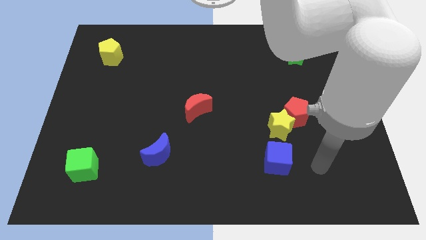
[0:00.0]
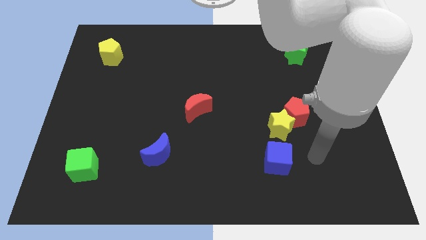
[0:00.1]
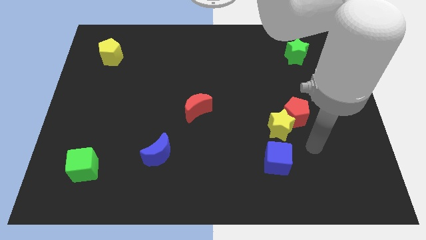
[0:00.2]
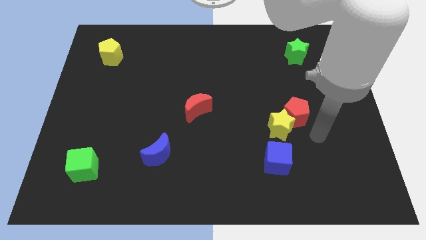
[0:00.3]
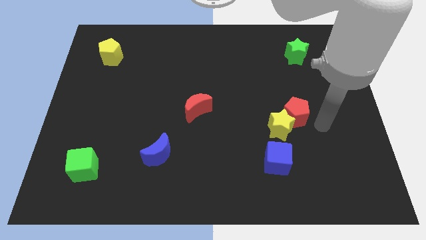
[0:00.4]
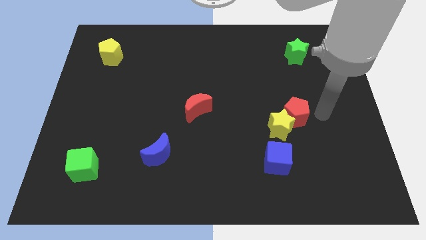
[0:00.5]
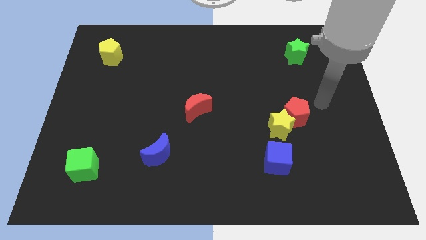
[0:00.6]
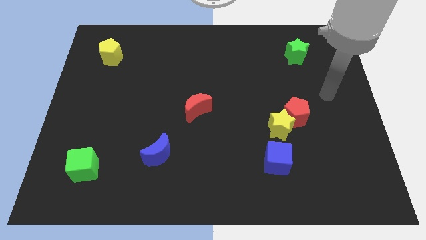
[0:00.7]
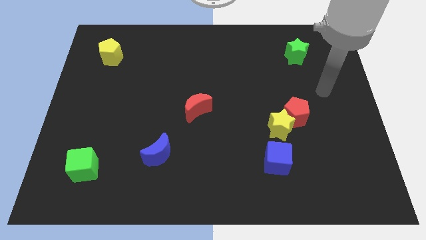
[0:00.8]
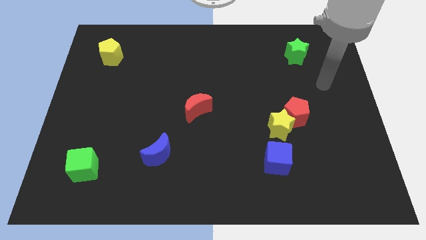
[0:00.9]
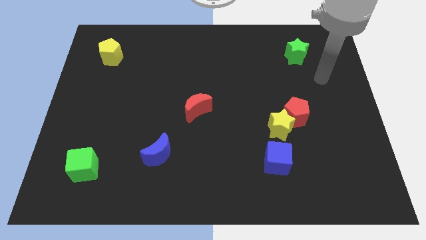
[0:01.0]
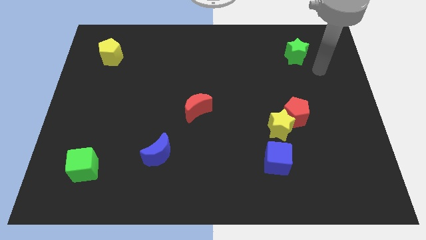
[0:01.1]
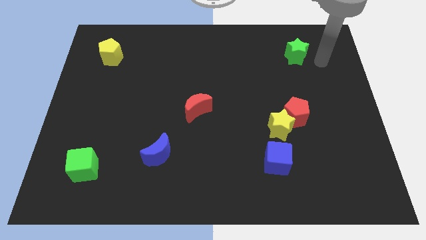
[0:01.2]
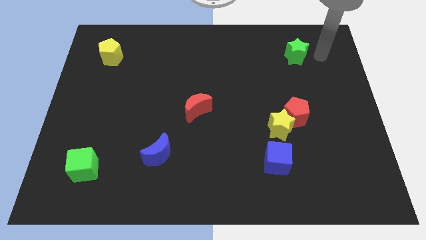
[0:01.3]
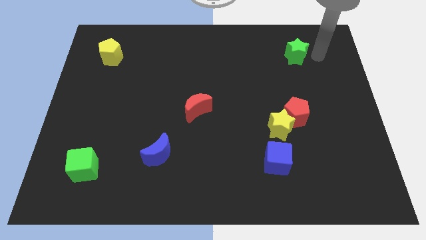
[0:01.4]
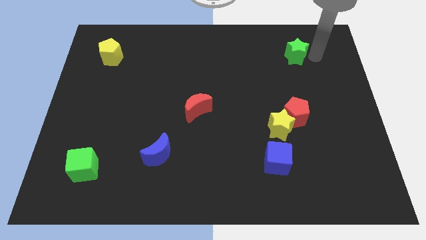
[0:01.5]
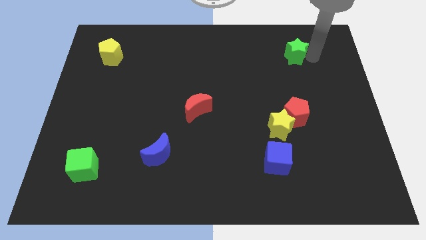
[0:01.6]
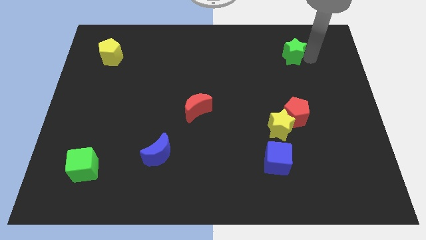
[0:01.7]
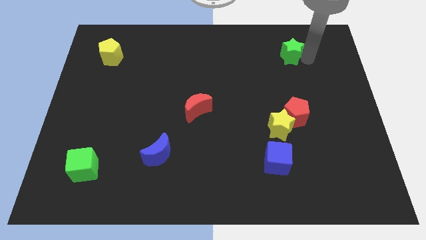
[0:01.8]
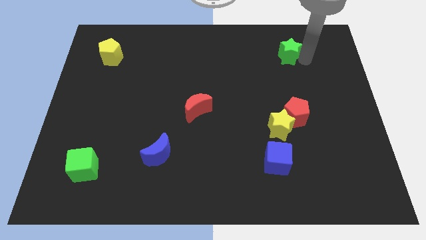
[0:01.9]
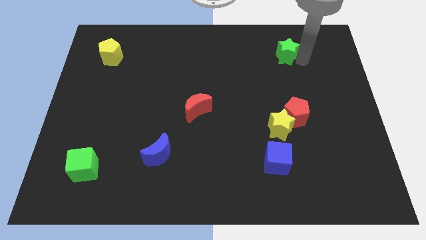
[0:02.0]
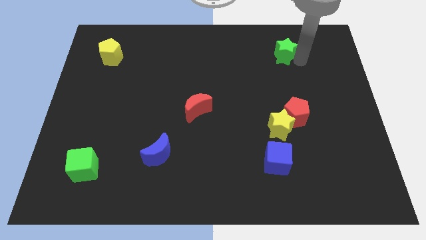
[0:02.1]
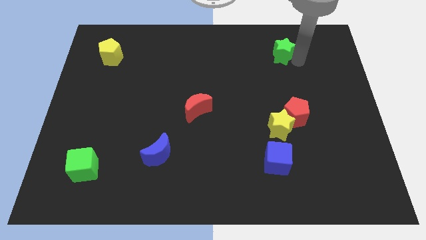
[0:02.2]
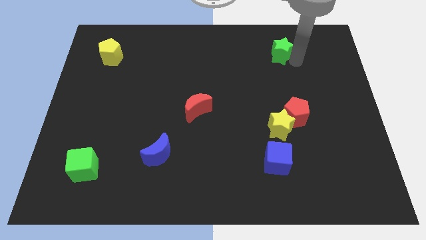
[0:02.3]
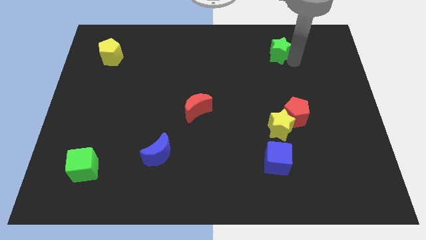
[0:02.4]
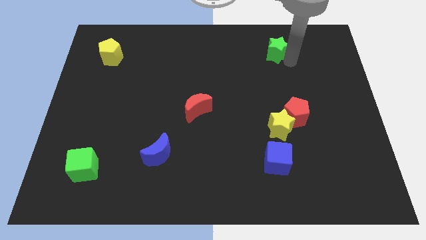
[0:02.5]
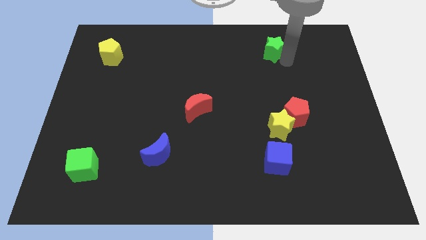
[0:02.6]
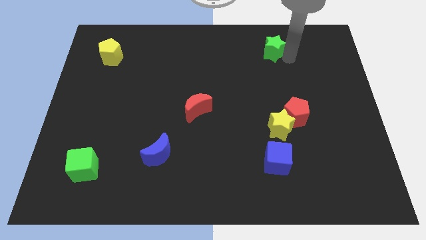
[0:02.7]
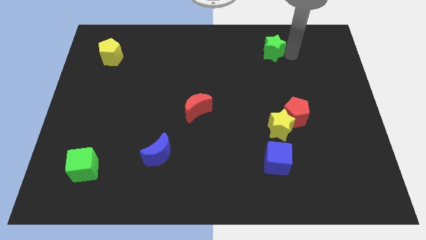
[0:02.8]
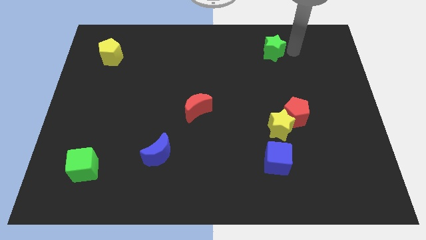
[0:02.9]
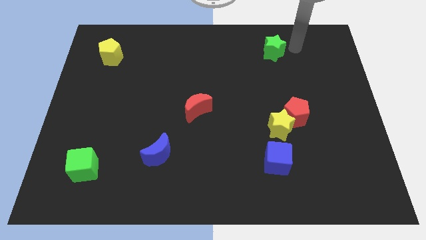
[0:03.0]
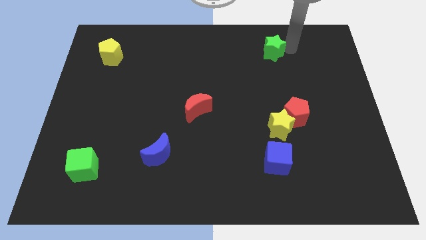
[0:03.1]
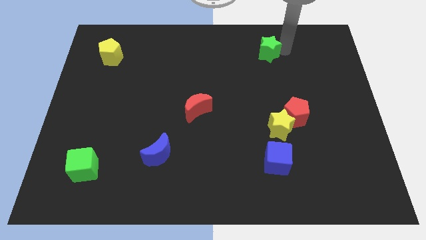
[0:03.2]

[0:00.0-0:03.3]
push the green star to the left a little bit

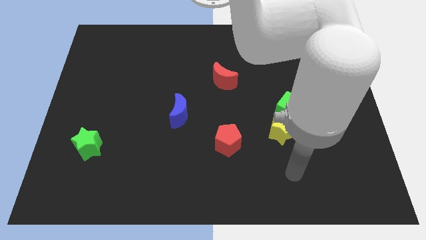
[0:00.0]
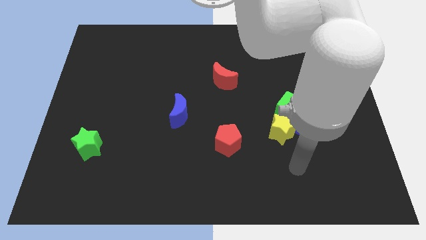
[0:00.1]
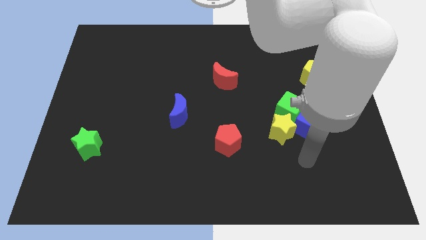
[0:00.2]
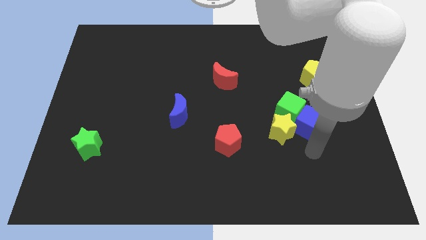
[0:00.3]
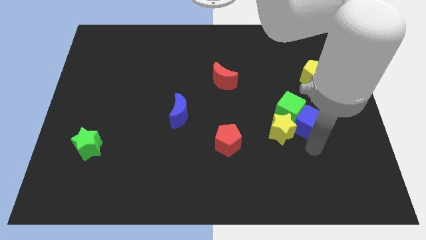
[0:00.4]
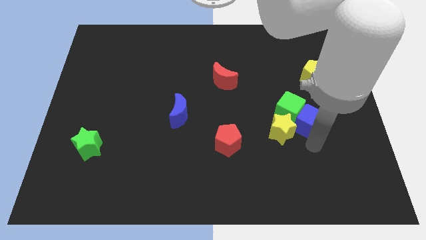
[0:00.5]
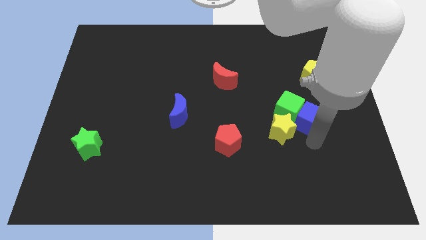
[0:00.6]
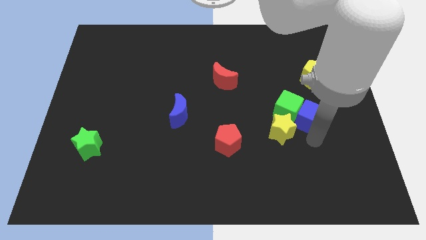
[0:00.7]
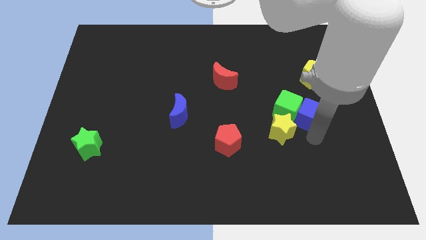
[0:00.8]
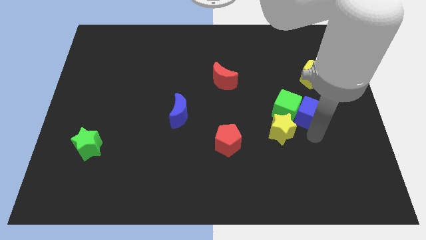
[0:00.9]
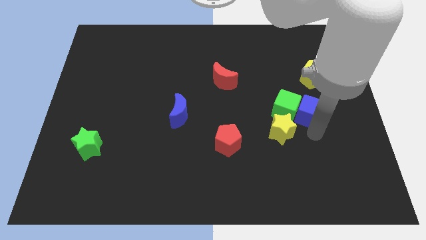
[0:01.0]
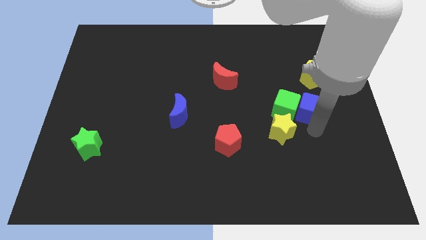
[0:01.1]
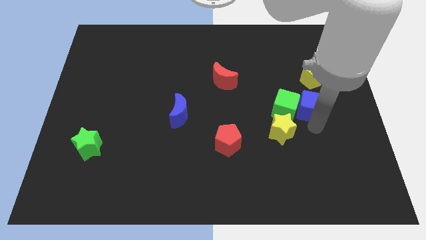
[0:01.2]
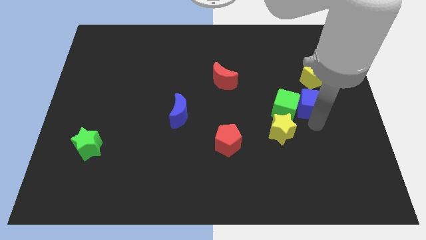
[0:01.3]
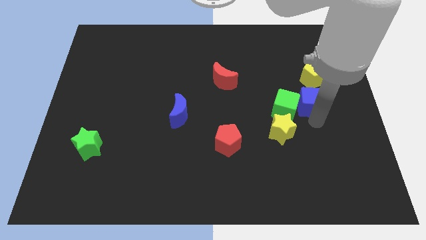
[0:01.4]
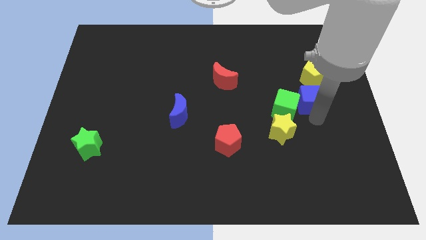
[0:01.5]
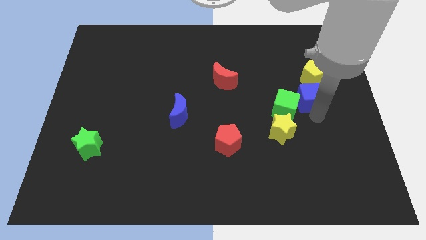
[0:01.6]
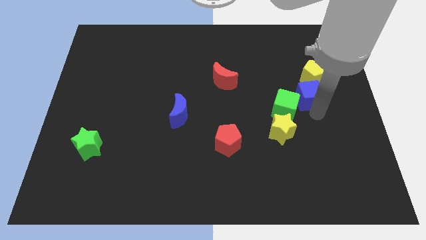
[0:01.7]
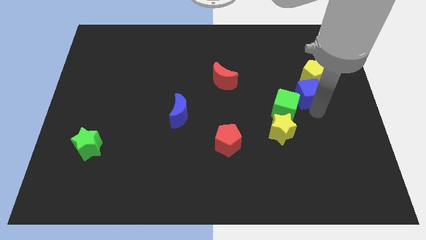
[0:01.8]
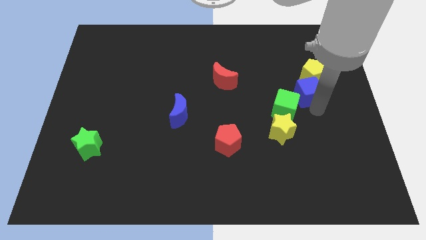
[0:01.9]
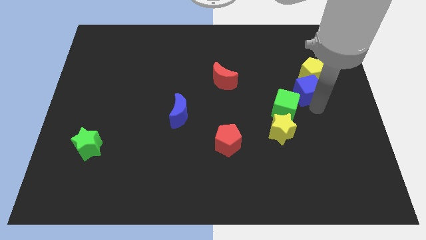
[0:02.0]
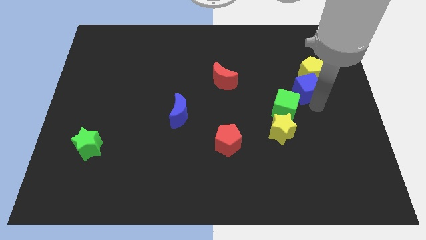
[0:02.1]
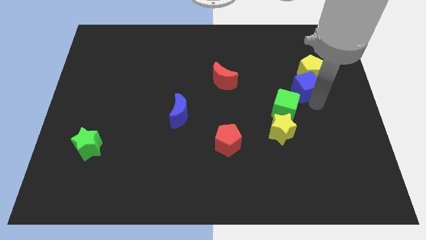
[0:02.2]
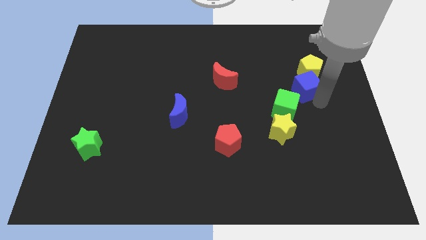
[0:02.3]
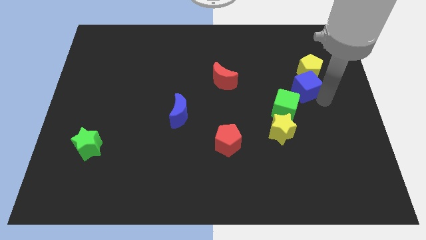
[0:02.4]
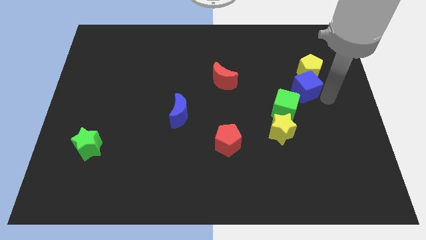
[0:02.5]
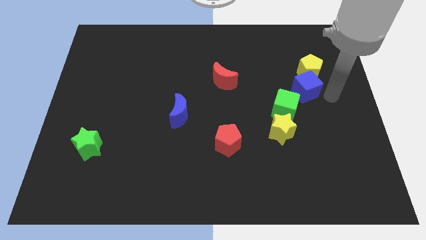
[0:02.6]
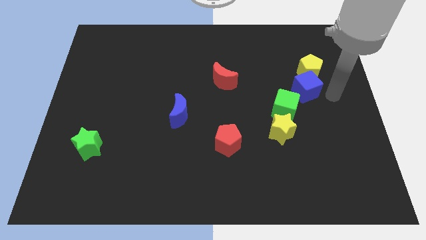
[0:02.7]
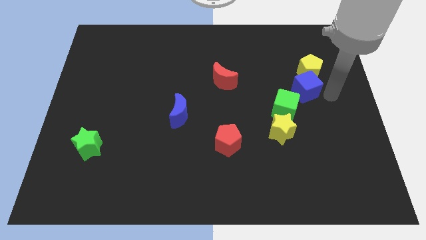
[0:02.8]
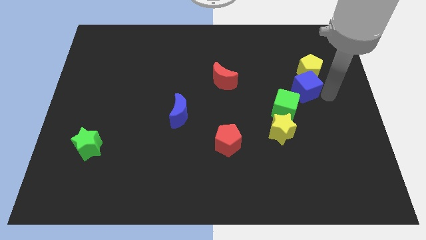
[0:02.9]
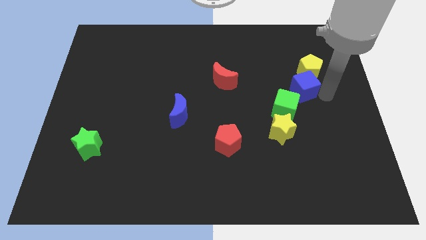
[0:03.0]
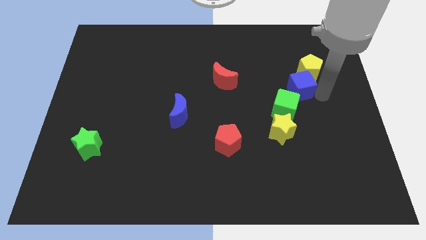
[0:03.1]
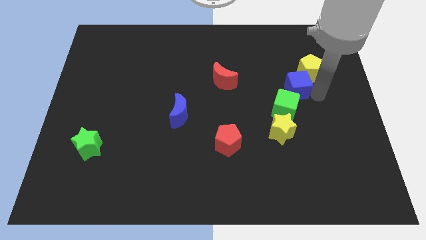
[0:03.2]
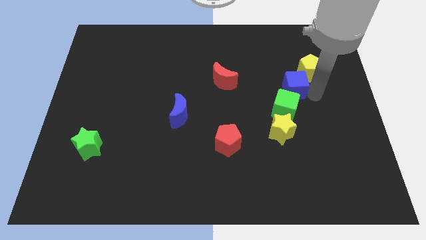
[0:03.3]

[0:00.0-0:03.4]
push the blue cube diagonally upwards and left somewhat

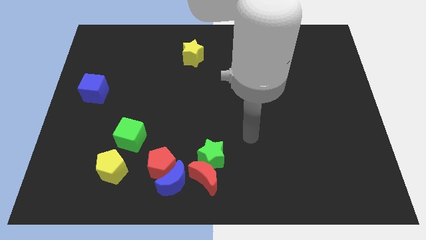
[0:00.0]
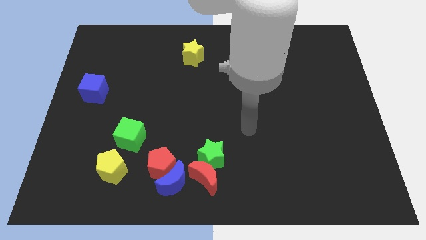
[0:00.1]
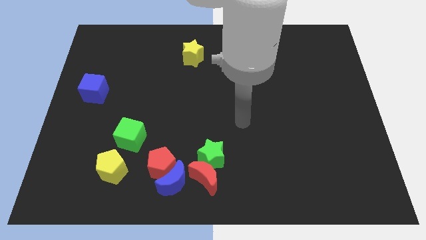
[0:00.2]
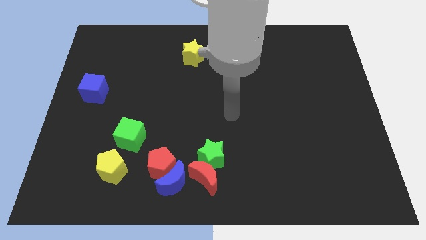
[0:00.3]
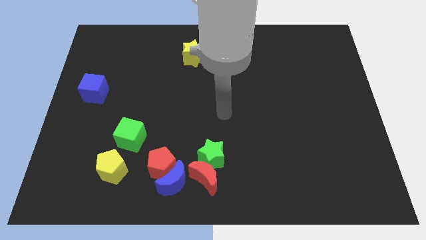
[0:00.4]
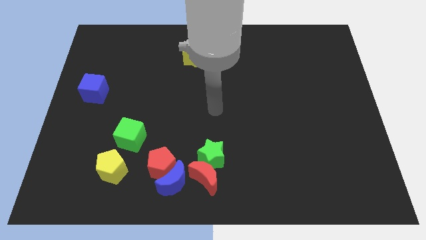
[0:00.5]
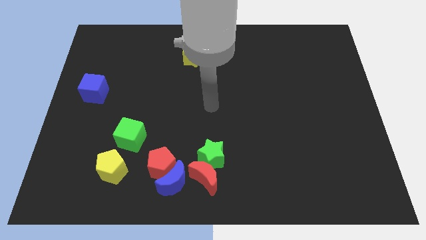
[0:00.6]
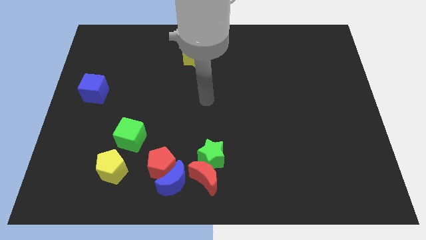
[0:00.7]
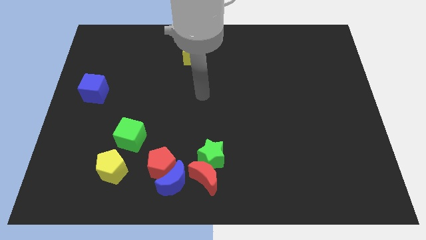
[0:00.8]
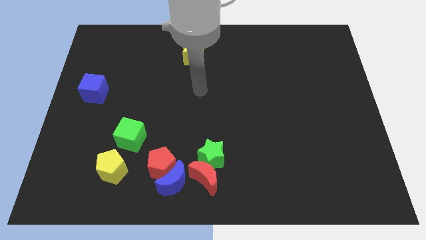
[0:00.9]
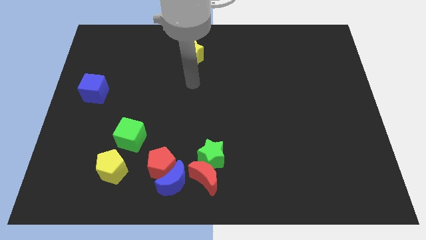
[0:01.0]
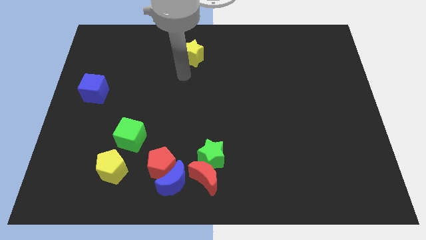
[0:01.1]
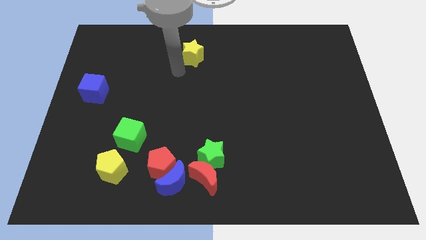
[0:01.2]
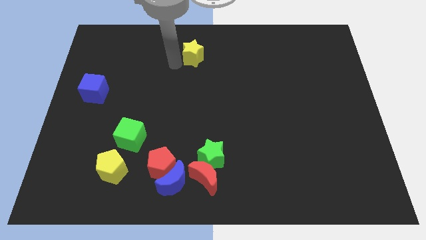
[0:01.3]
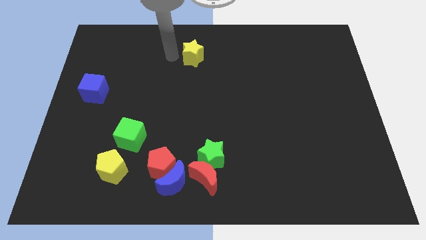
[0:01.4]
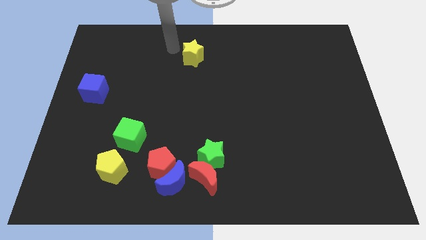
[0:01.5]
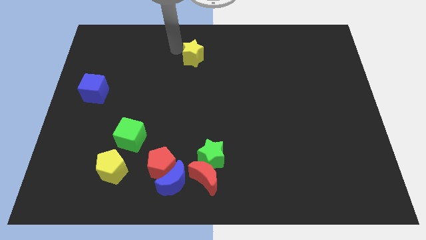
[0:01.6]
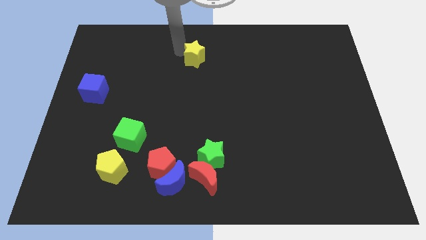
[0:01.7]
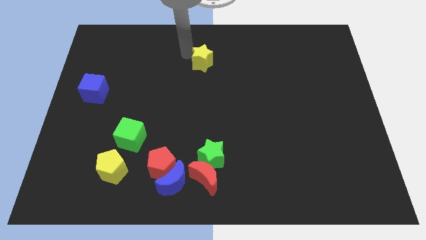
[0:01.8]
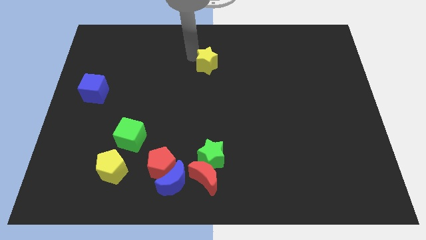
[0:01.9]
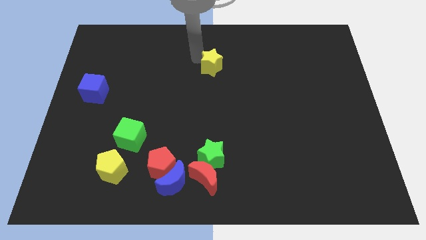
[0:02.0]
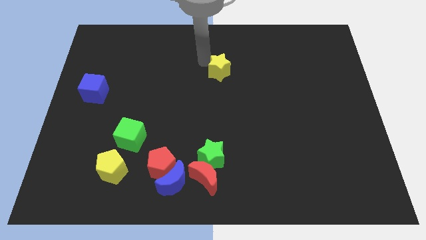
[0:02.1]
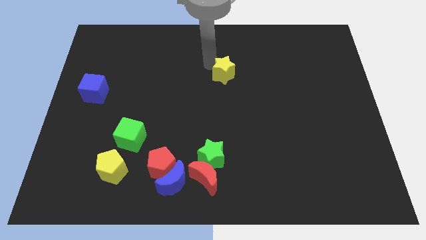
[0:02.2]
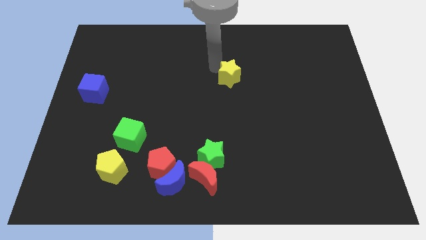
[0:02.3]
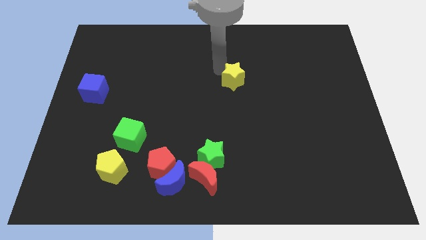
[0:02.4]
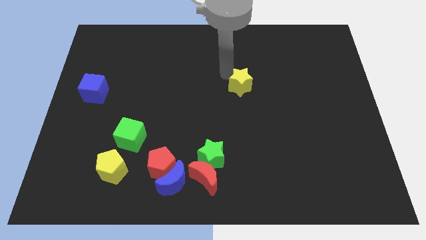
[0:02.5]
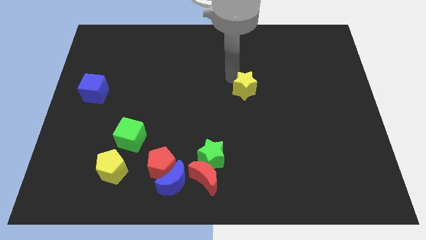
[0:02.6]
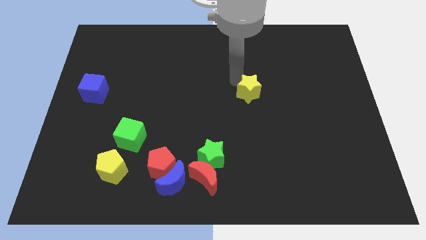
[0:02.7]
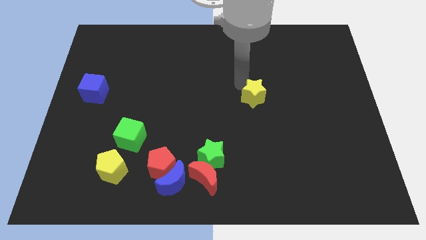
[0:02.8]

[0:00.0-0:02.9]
slide the yellow star down and right
